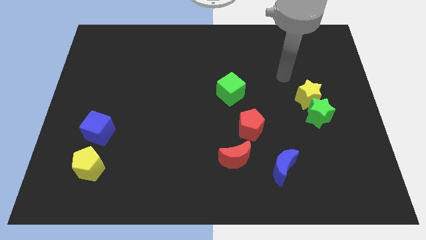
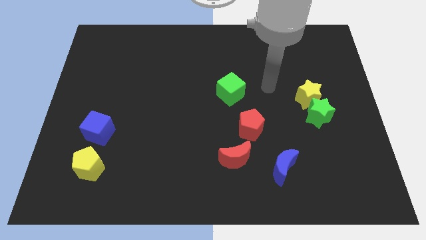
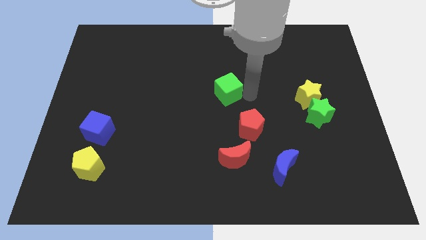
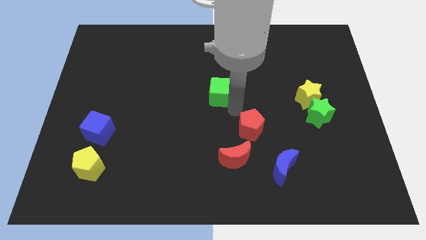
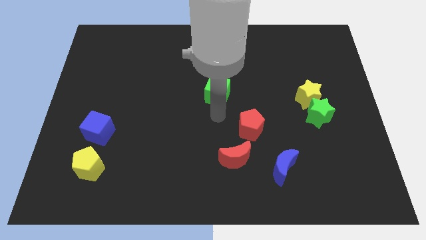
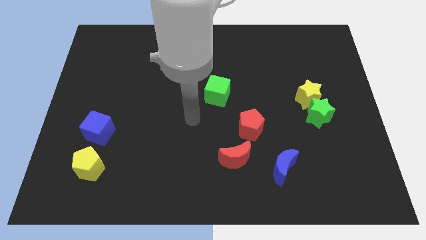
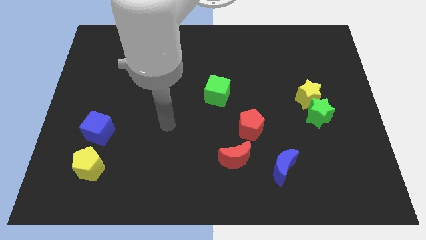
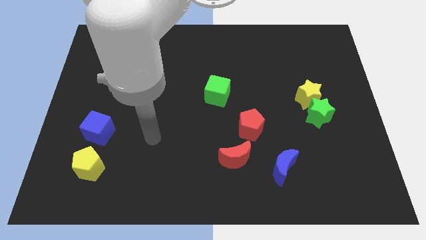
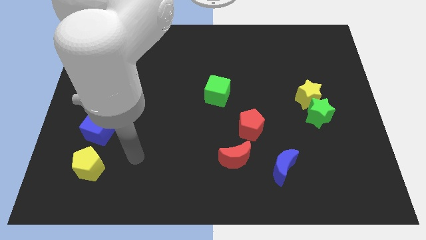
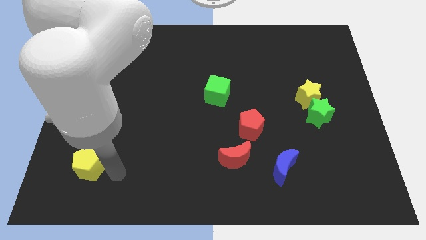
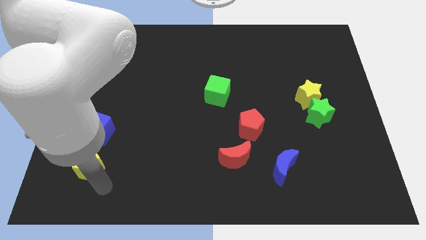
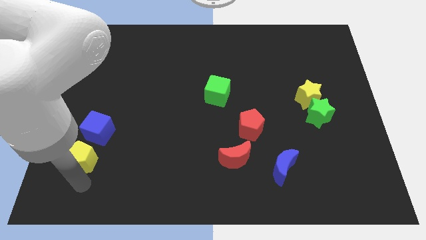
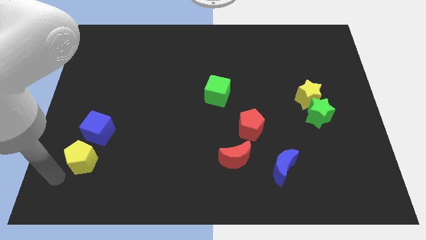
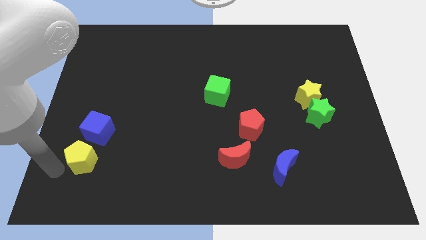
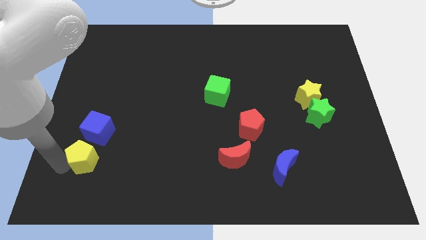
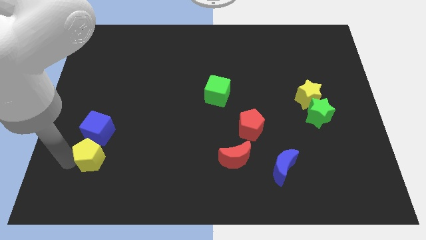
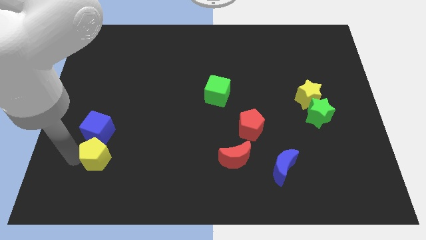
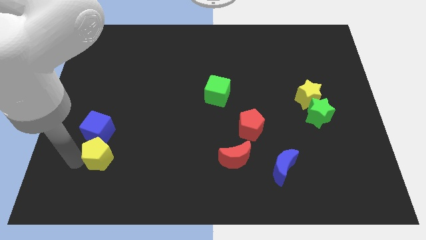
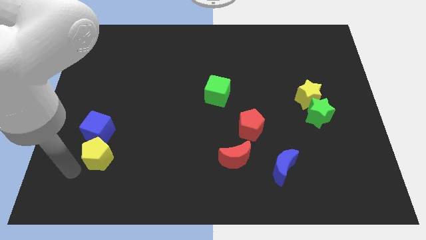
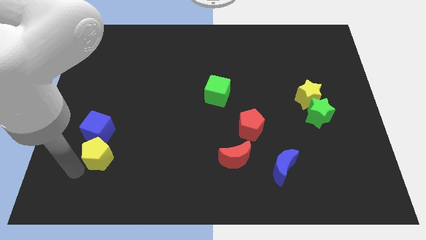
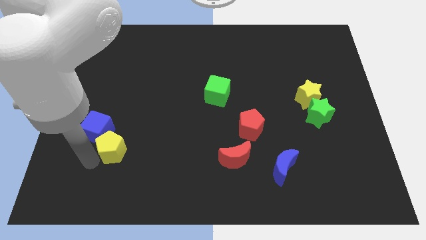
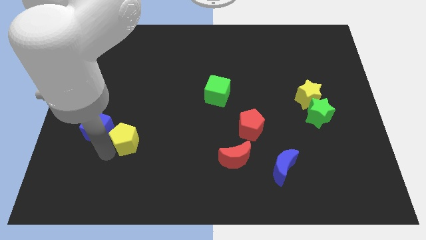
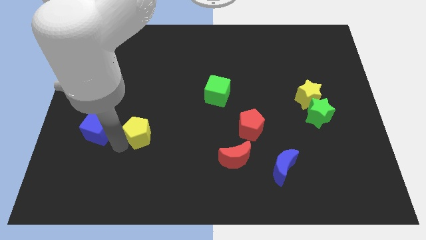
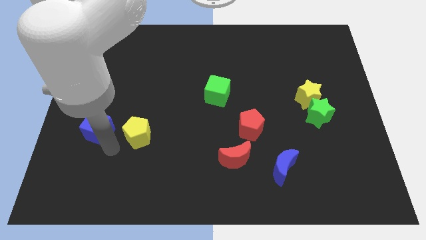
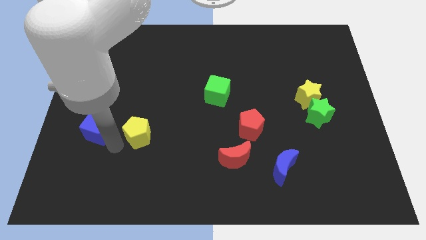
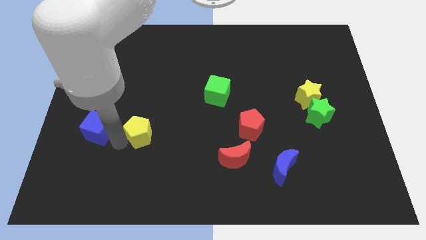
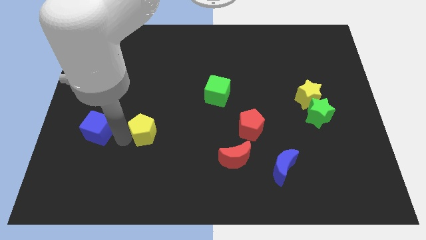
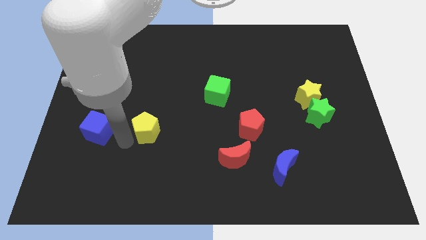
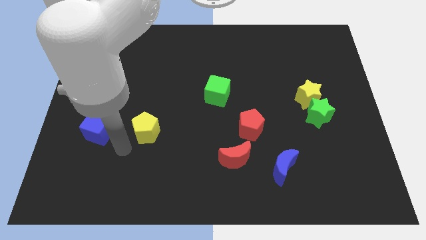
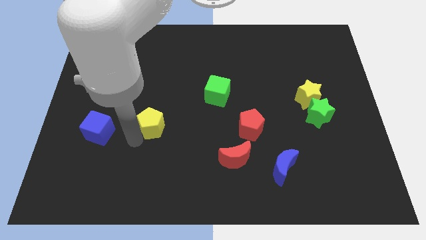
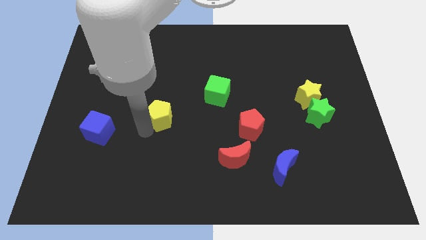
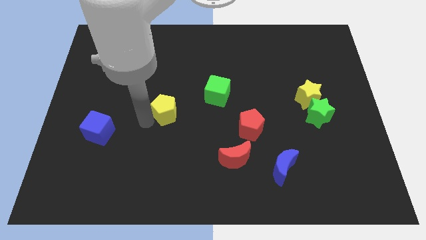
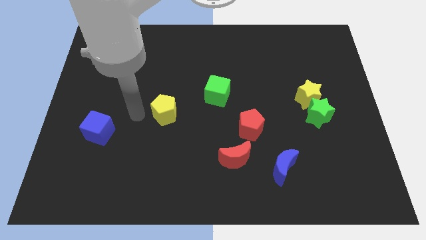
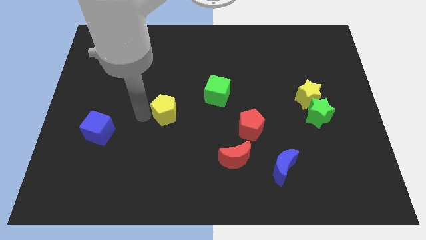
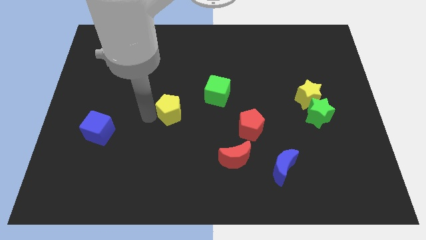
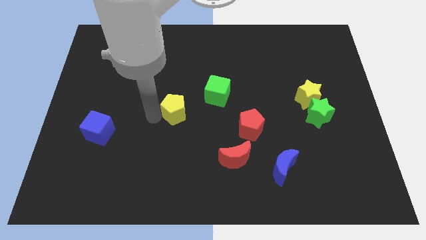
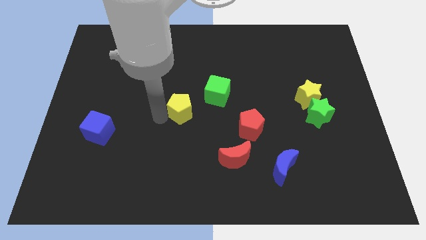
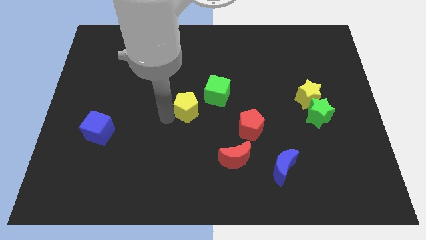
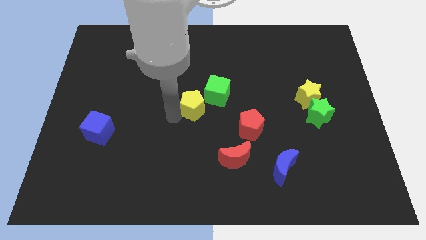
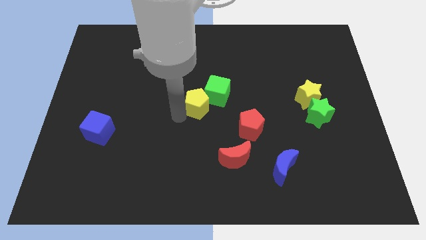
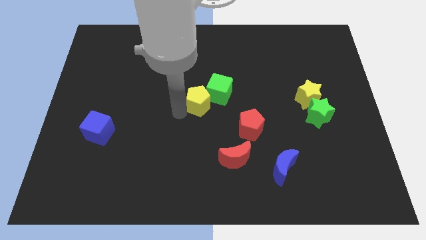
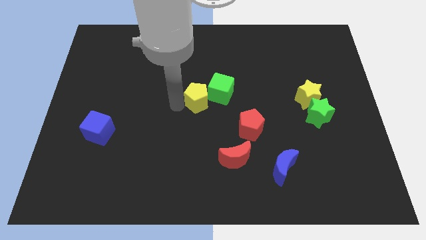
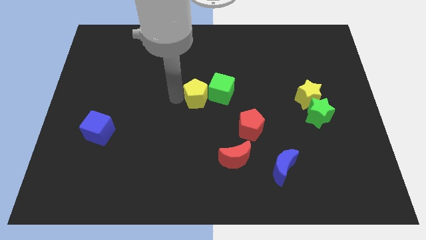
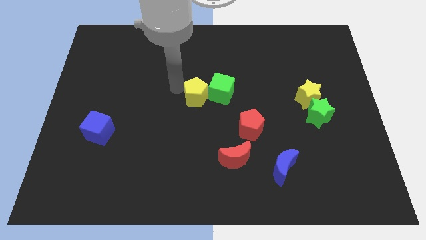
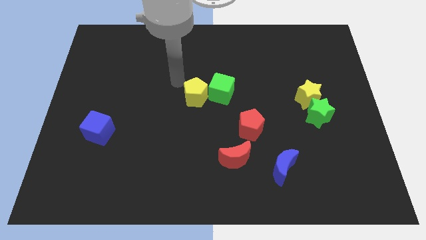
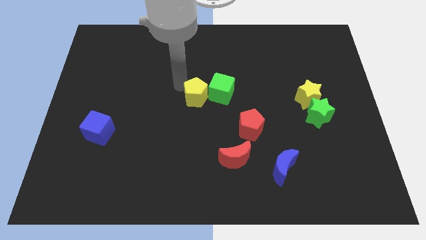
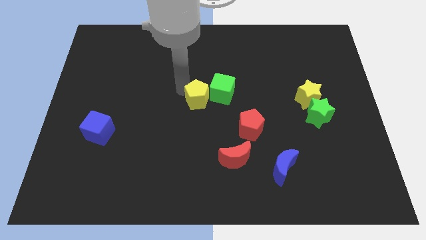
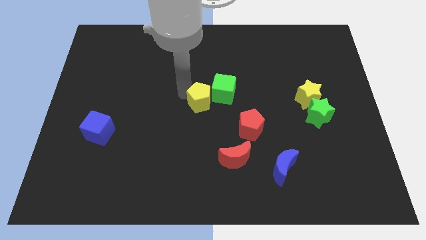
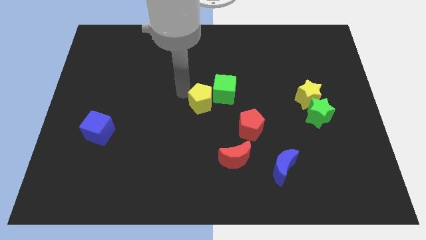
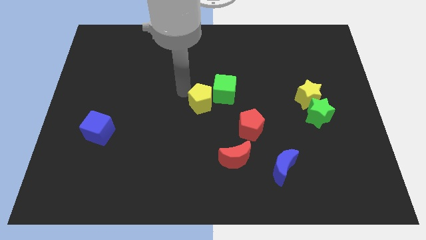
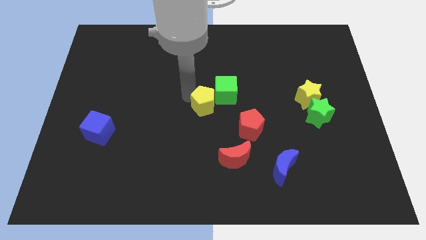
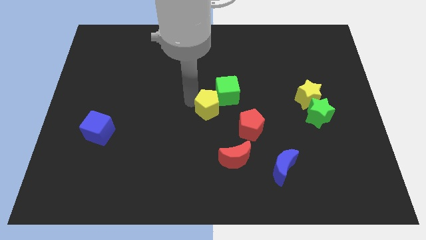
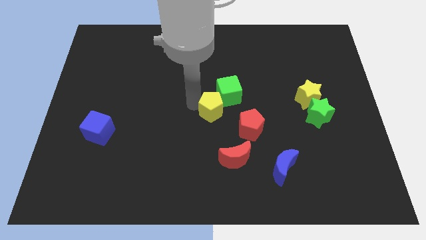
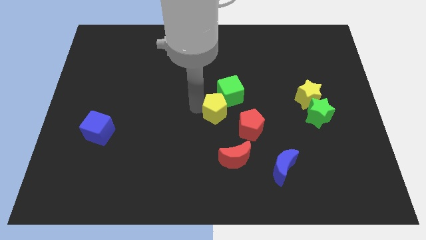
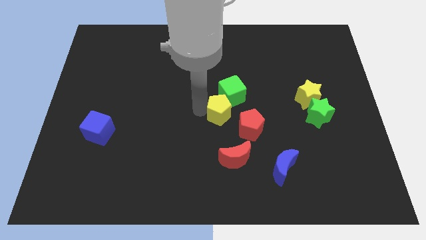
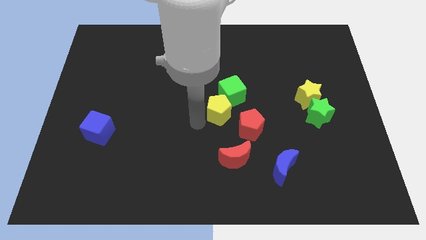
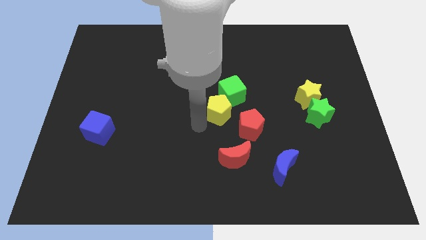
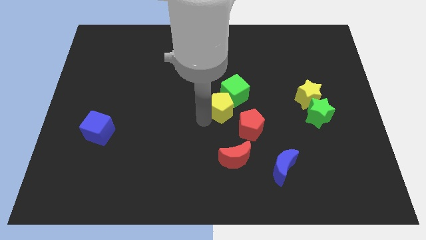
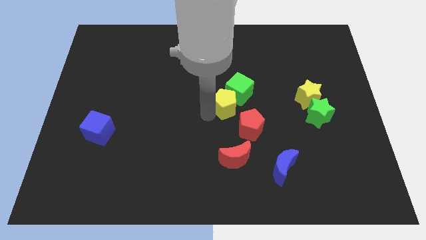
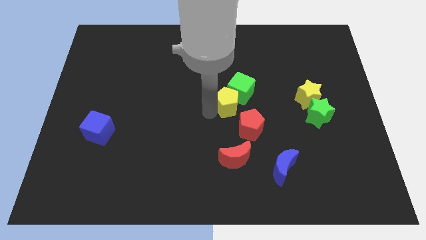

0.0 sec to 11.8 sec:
slide the yellow pentagon to the top of the red pentagon

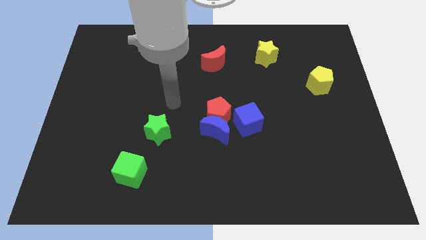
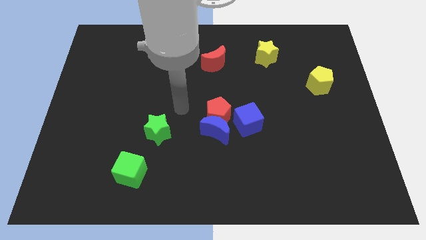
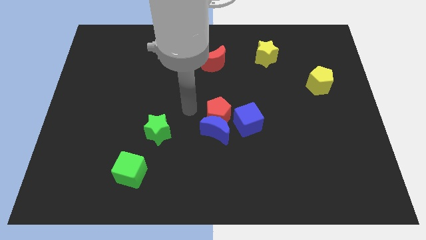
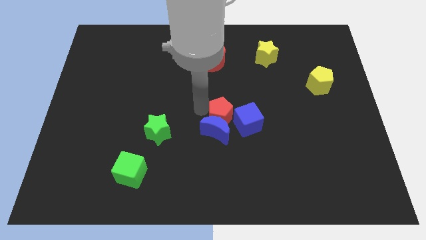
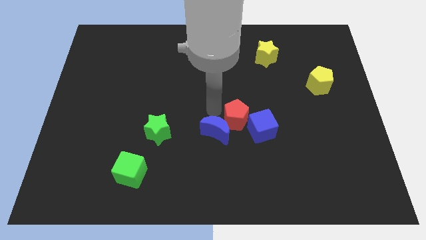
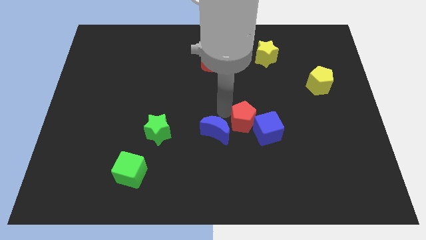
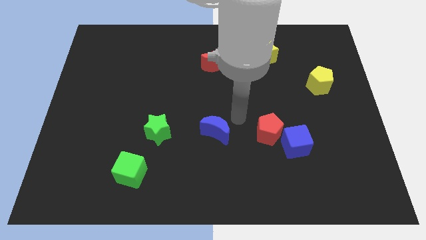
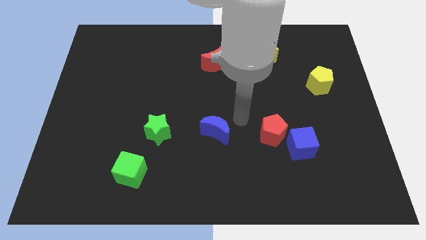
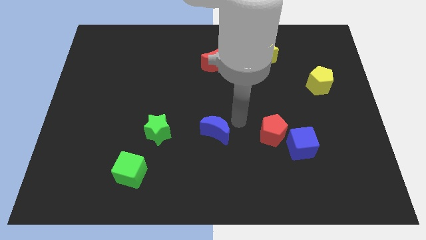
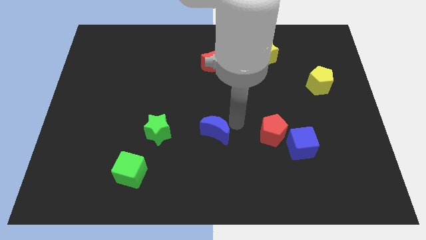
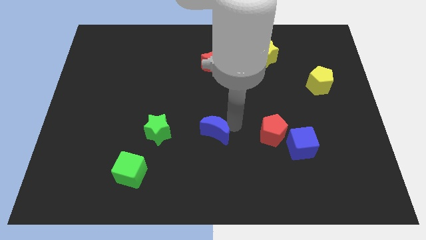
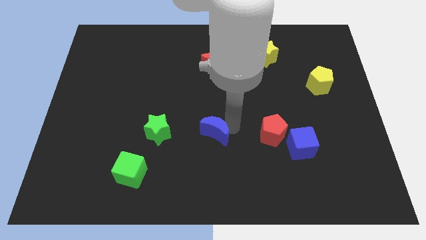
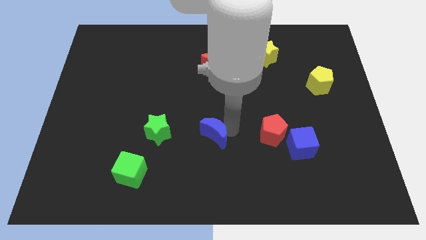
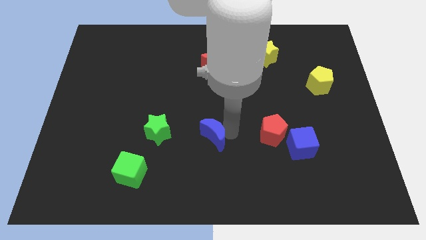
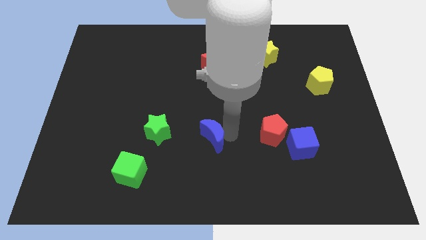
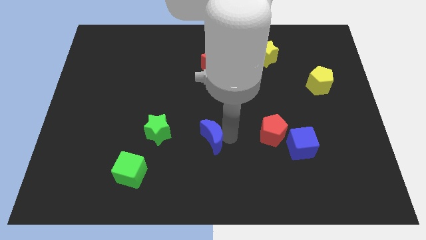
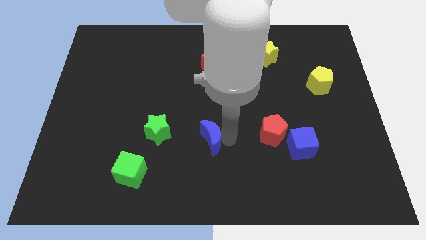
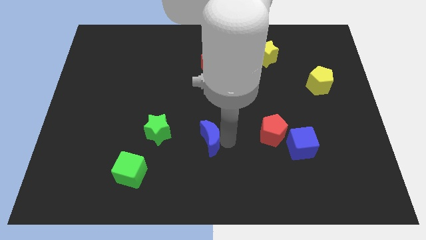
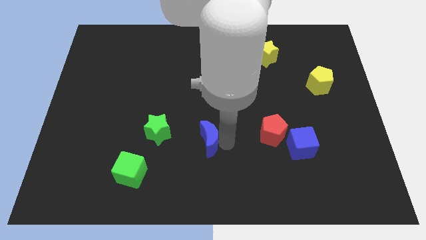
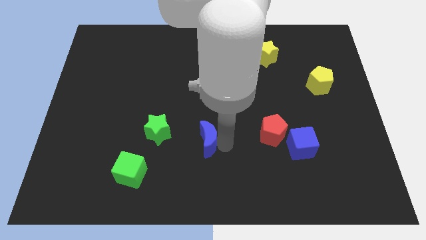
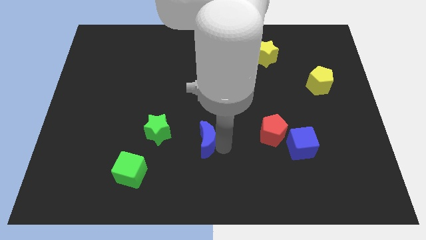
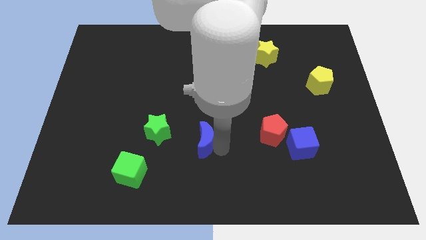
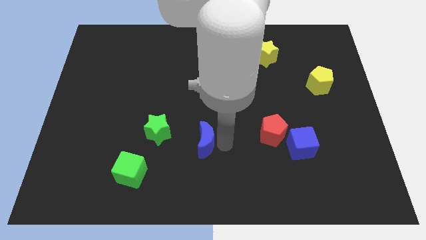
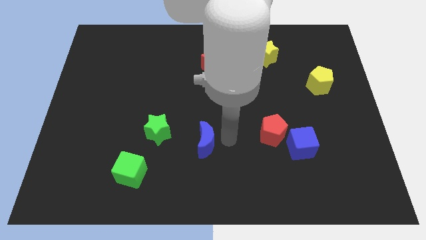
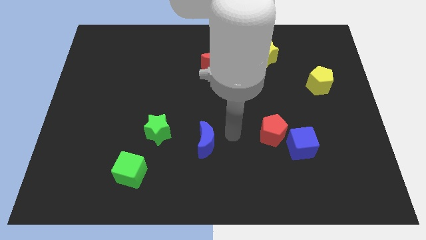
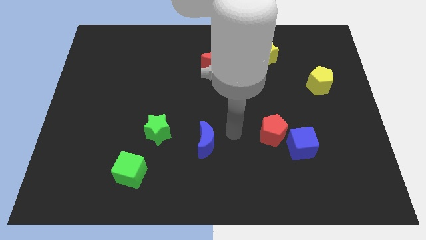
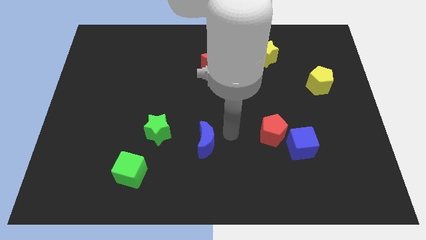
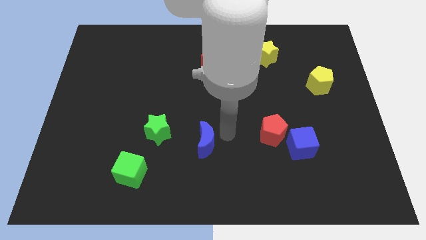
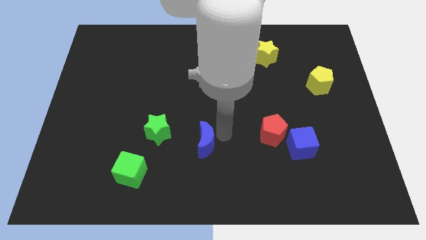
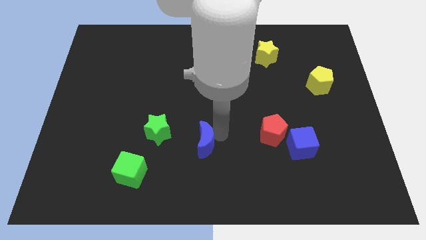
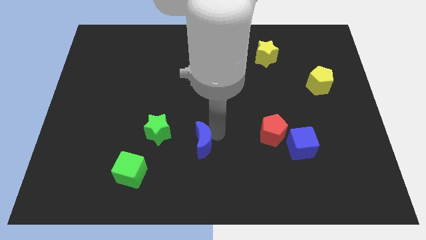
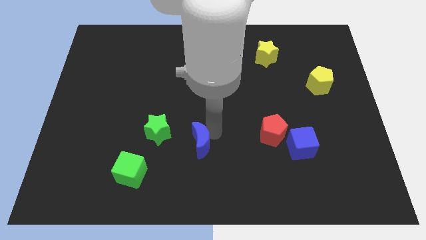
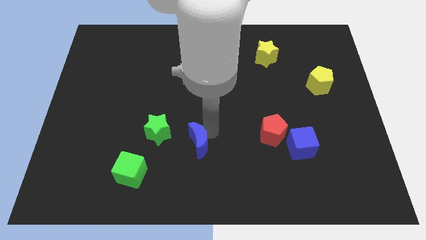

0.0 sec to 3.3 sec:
push the blue moon to the bottom right of the green star
